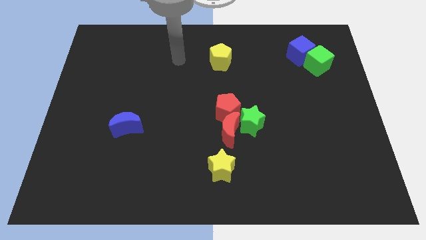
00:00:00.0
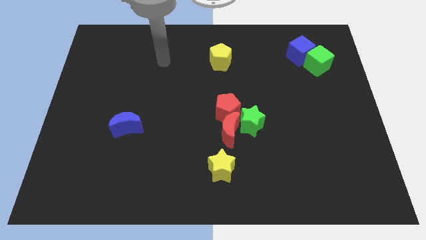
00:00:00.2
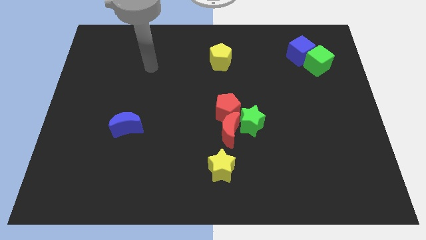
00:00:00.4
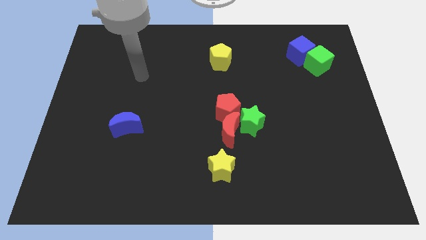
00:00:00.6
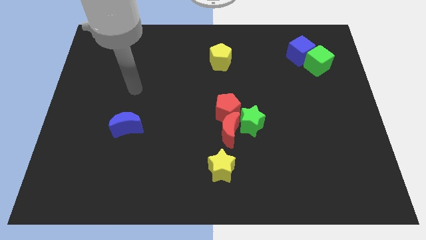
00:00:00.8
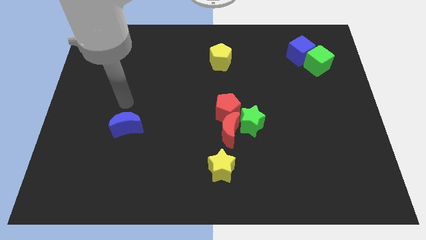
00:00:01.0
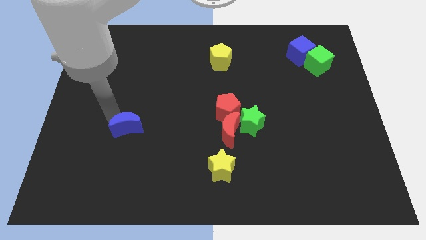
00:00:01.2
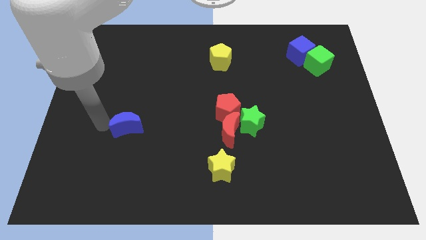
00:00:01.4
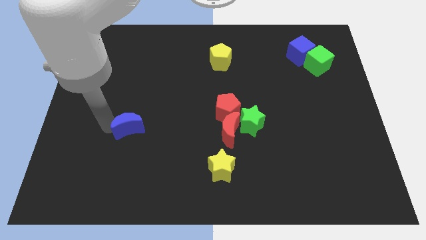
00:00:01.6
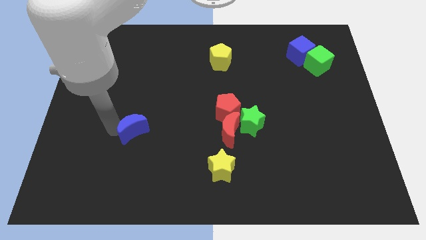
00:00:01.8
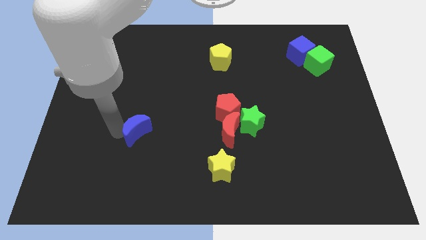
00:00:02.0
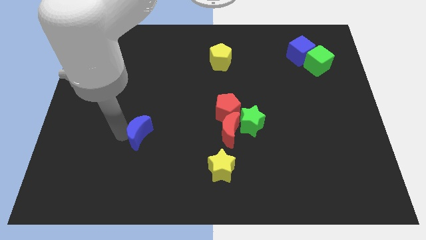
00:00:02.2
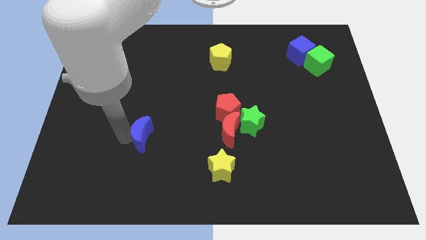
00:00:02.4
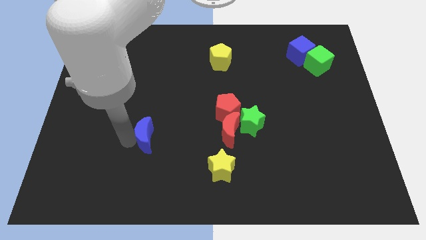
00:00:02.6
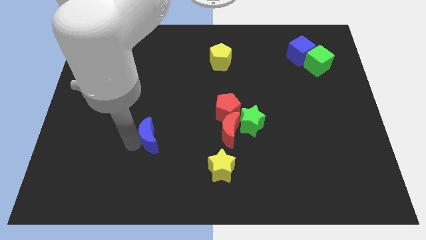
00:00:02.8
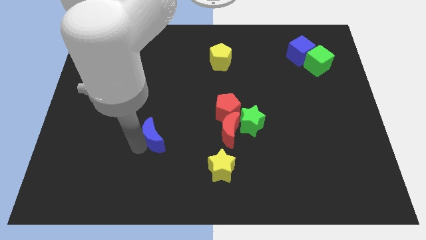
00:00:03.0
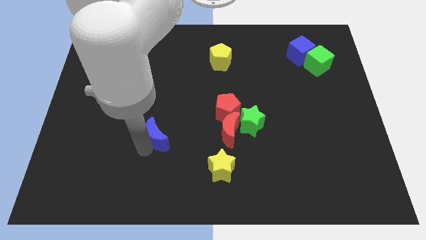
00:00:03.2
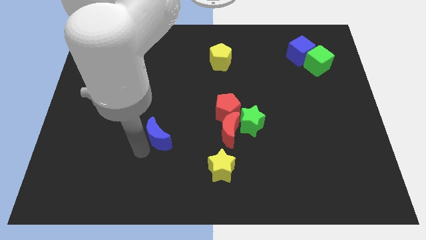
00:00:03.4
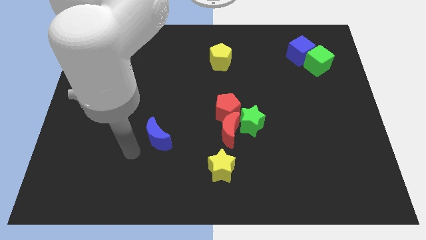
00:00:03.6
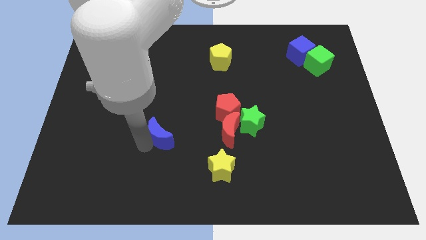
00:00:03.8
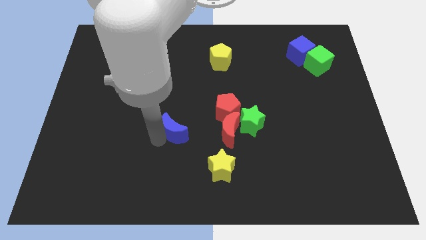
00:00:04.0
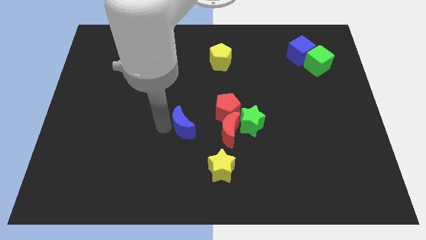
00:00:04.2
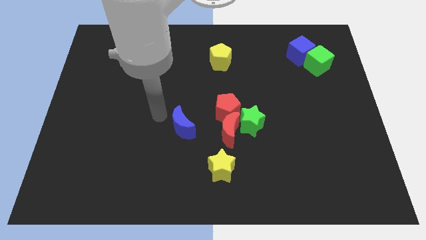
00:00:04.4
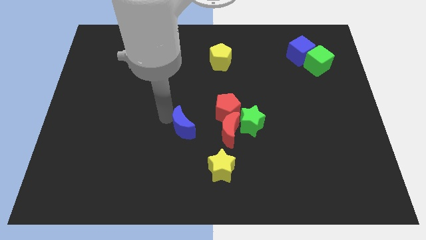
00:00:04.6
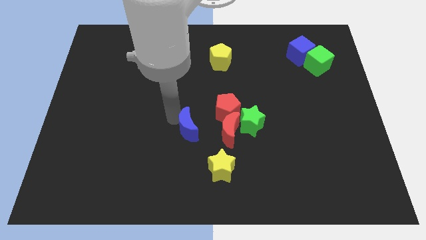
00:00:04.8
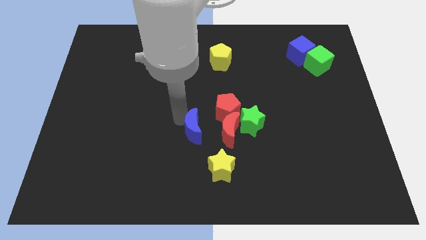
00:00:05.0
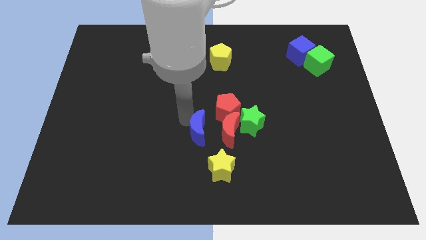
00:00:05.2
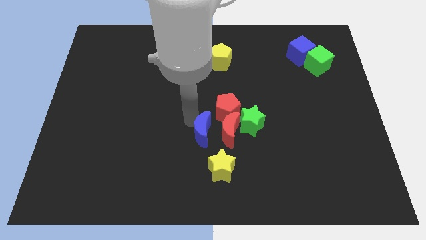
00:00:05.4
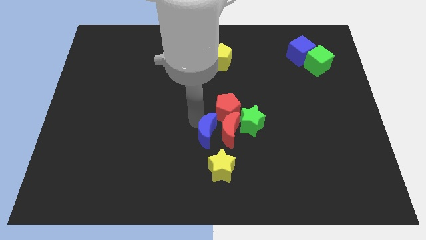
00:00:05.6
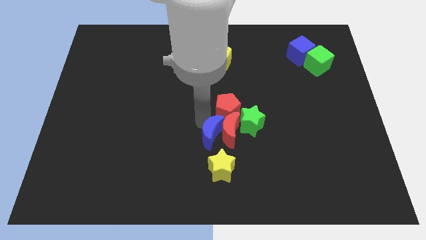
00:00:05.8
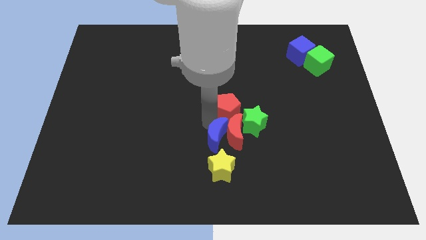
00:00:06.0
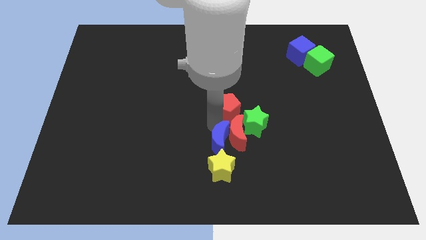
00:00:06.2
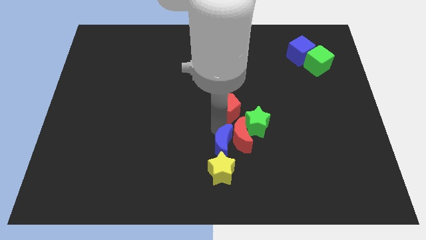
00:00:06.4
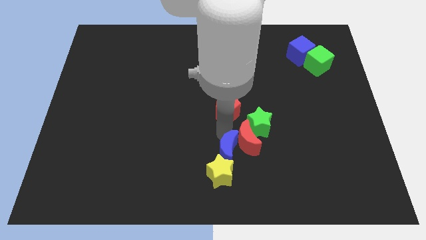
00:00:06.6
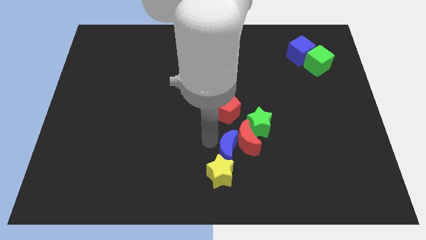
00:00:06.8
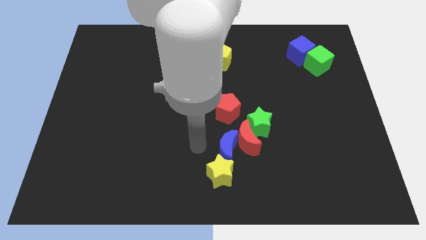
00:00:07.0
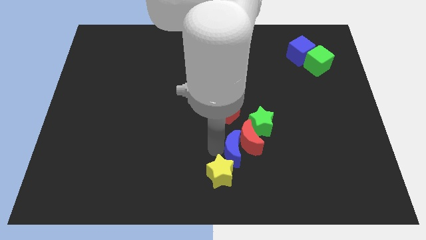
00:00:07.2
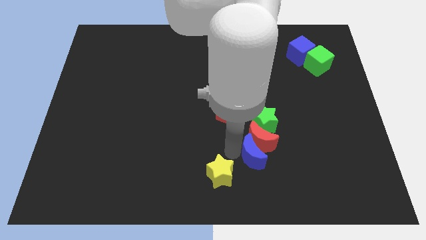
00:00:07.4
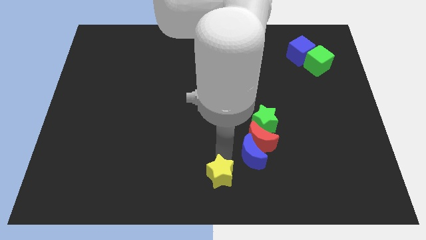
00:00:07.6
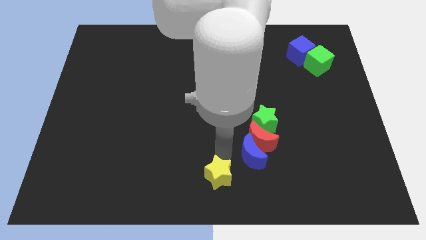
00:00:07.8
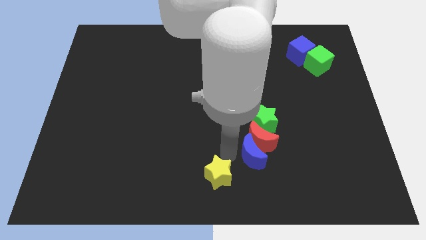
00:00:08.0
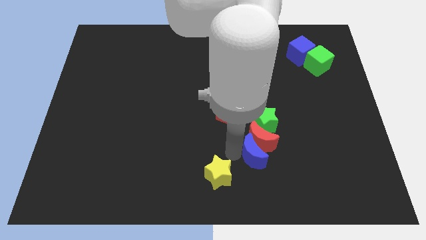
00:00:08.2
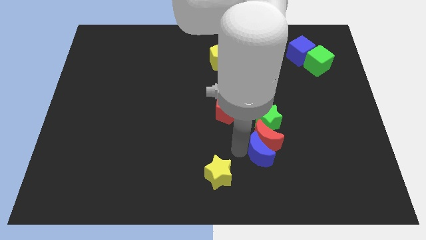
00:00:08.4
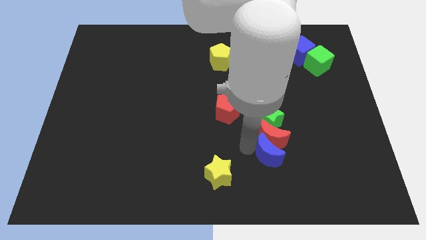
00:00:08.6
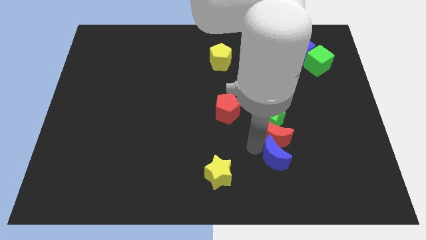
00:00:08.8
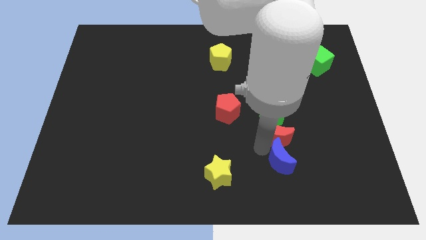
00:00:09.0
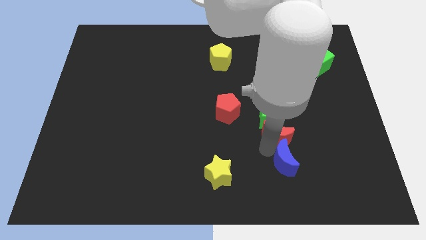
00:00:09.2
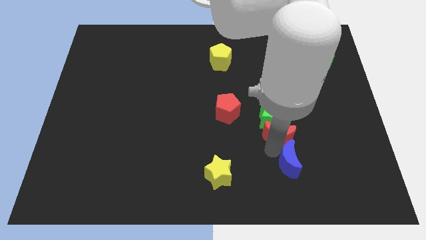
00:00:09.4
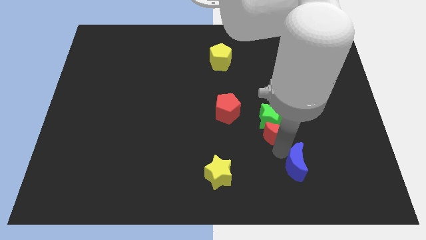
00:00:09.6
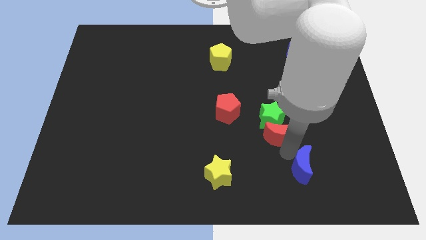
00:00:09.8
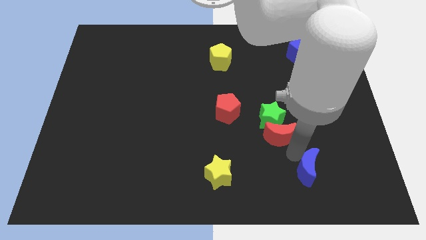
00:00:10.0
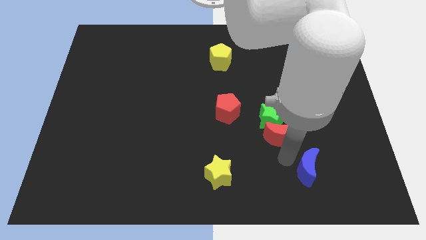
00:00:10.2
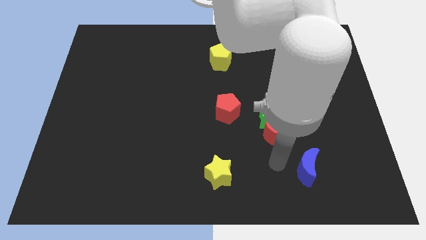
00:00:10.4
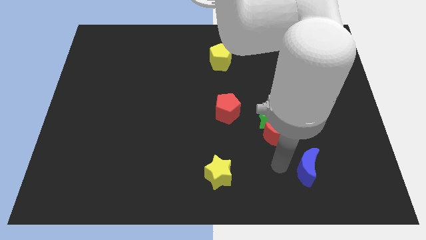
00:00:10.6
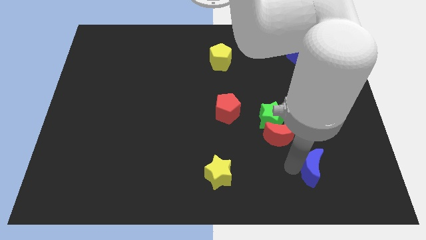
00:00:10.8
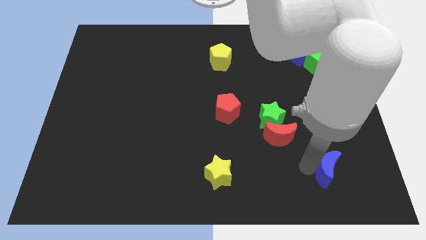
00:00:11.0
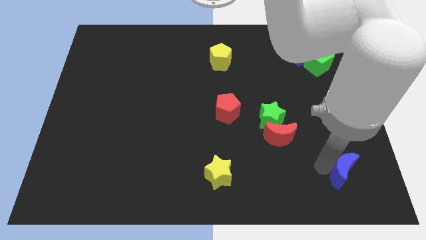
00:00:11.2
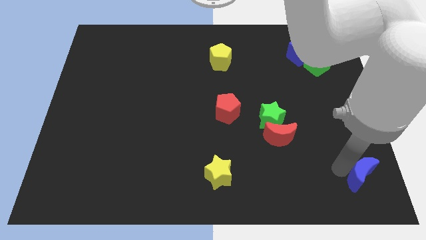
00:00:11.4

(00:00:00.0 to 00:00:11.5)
slide the blue moon to the lower right corner
